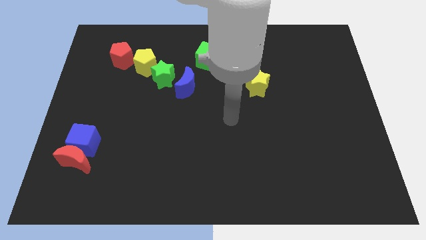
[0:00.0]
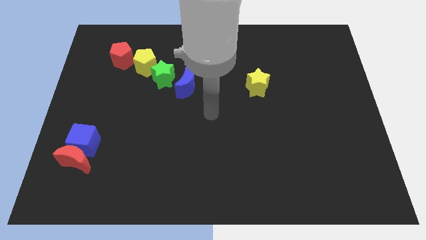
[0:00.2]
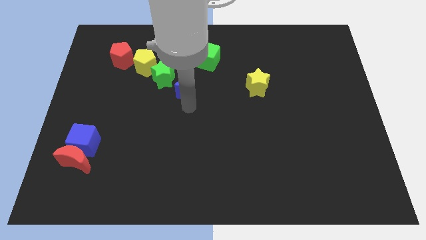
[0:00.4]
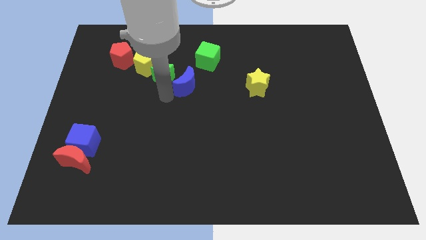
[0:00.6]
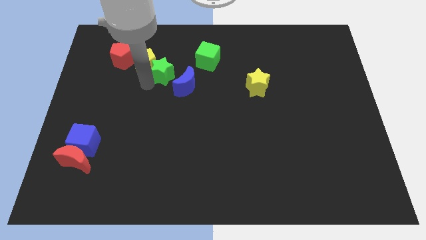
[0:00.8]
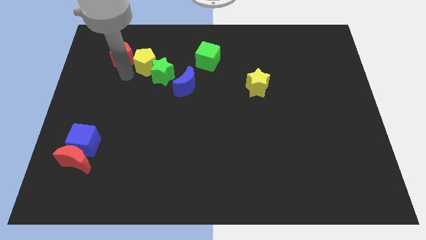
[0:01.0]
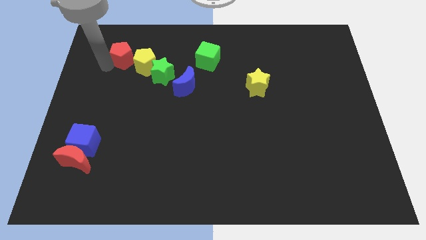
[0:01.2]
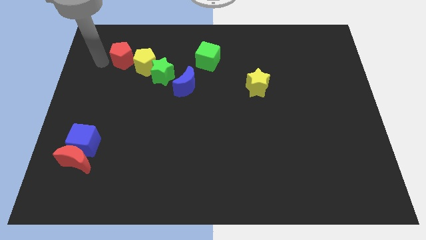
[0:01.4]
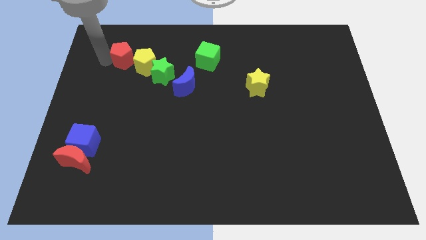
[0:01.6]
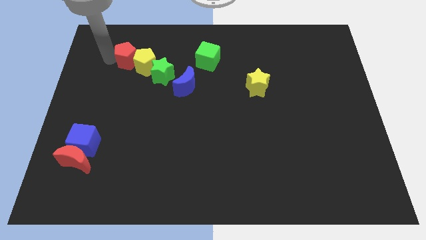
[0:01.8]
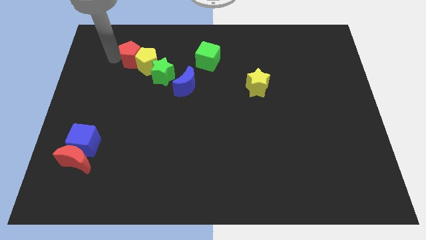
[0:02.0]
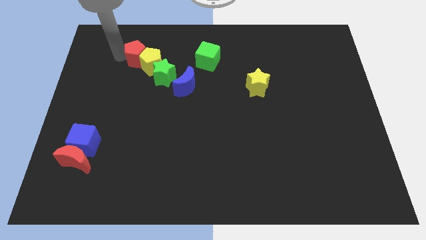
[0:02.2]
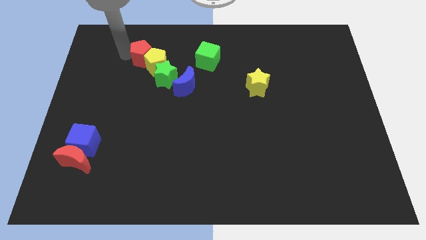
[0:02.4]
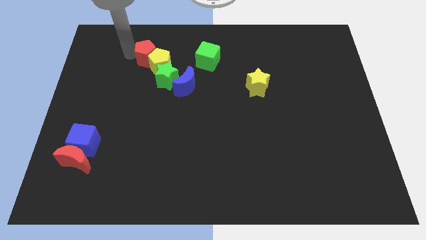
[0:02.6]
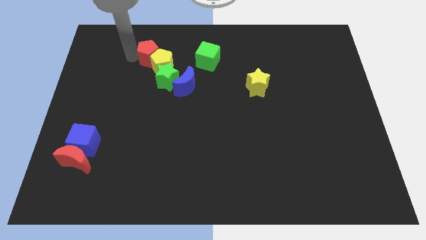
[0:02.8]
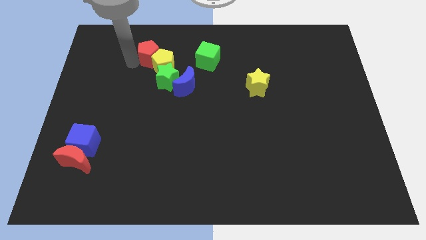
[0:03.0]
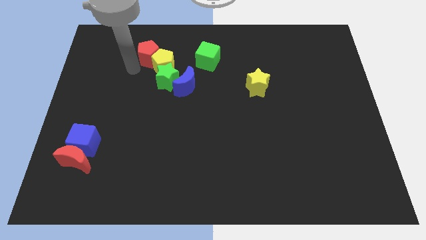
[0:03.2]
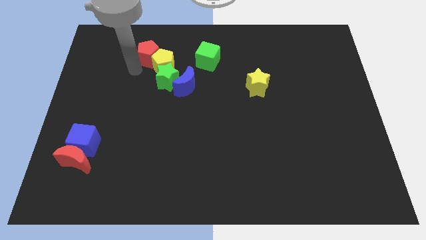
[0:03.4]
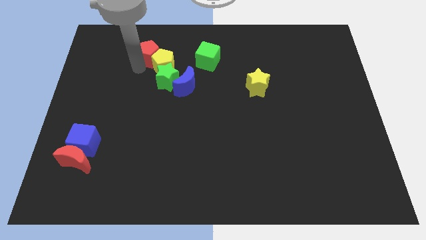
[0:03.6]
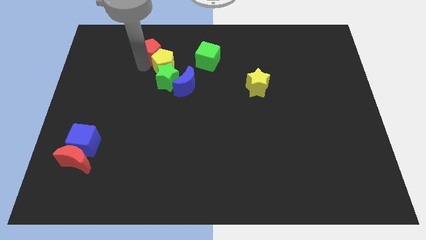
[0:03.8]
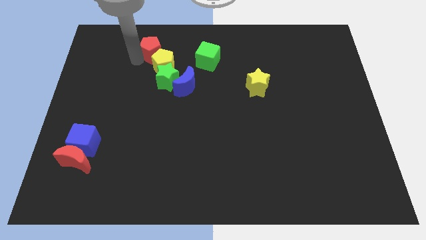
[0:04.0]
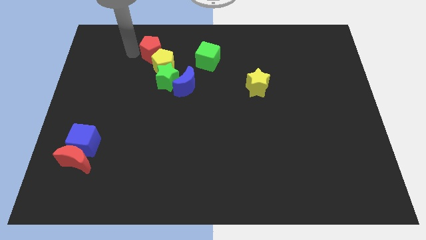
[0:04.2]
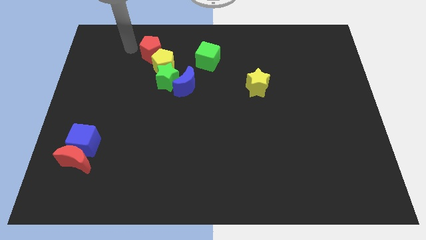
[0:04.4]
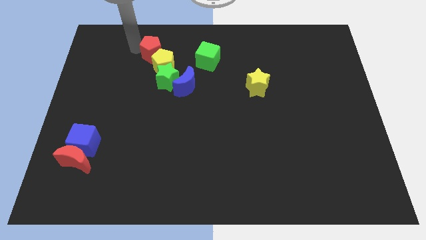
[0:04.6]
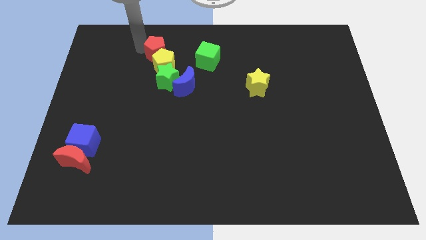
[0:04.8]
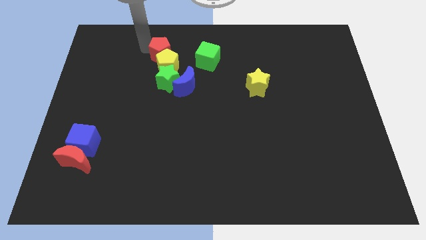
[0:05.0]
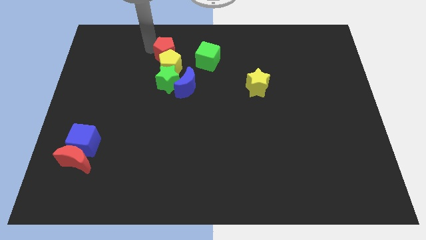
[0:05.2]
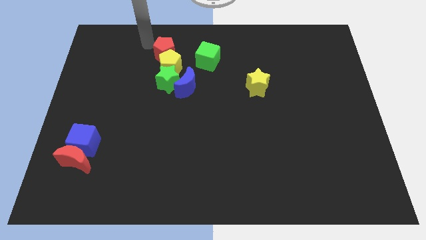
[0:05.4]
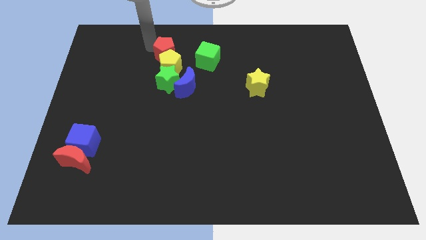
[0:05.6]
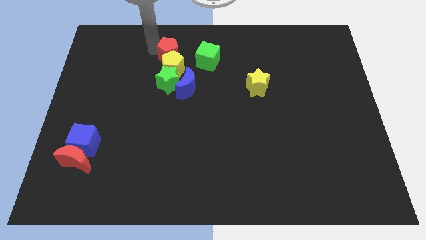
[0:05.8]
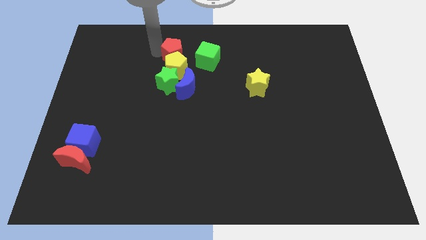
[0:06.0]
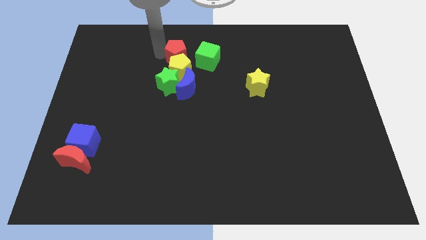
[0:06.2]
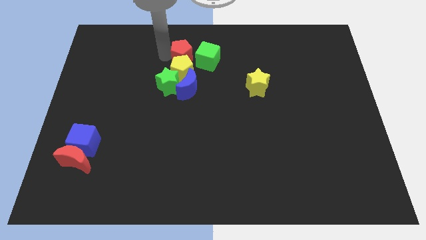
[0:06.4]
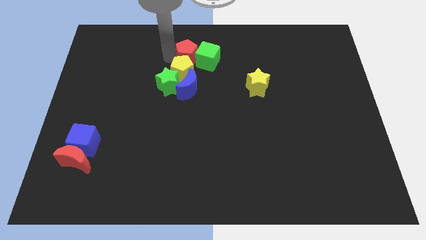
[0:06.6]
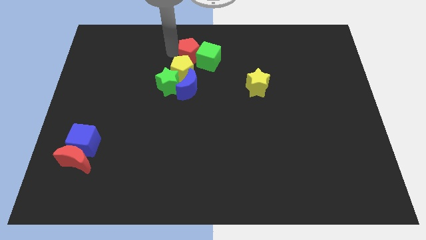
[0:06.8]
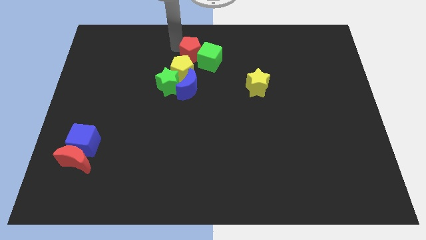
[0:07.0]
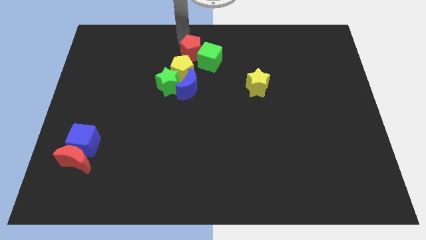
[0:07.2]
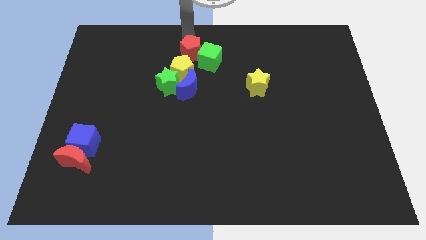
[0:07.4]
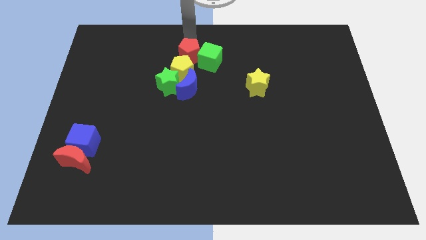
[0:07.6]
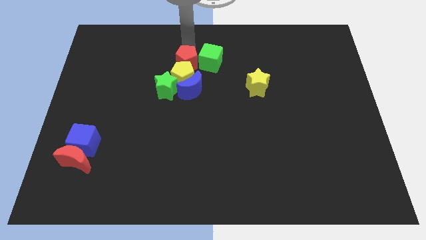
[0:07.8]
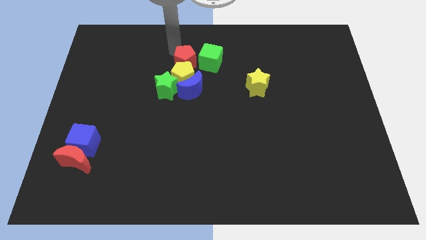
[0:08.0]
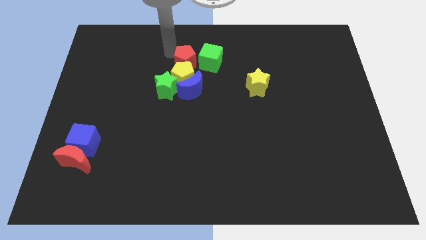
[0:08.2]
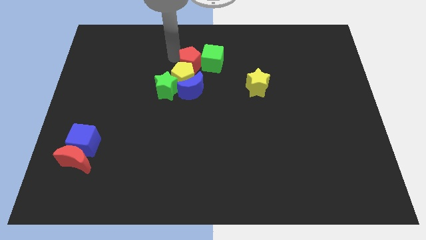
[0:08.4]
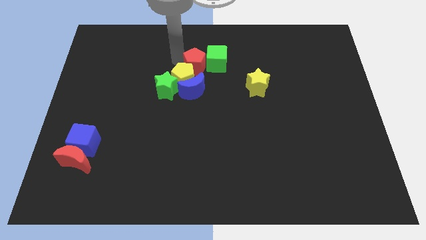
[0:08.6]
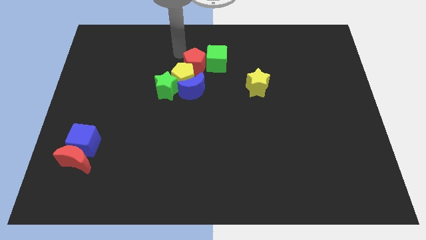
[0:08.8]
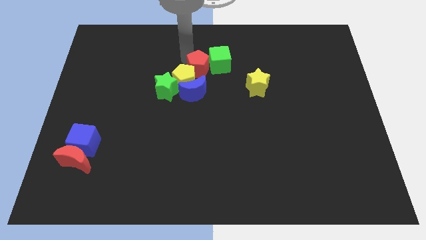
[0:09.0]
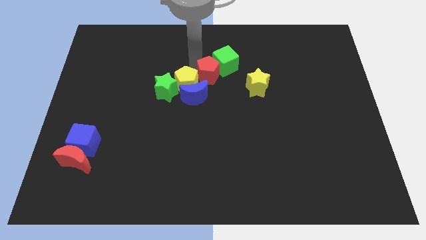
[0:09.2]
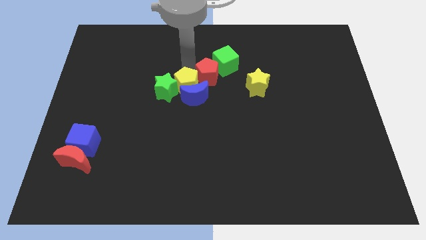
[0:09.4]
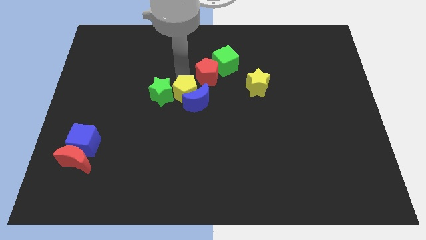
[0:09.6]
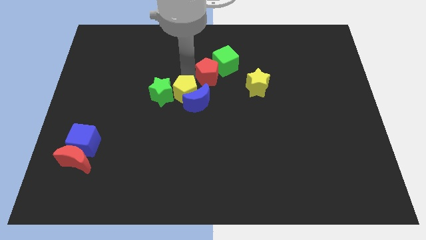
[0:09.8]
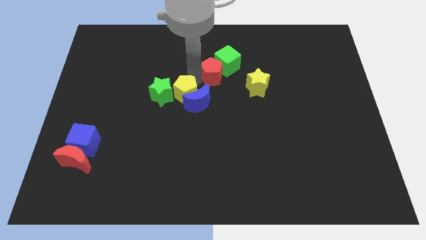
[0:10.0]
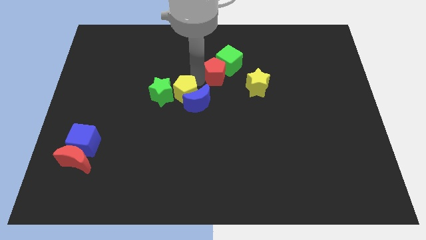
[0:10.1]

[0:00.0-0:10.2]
move the red pentagon to the top left of the yellow star

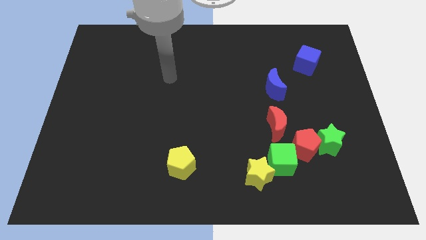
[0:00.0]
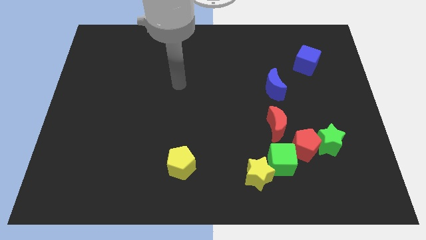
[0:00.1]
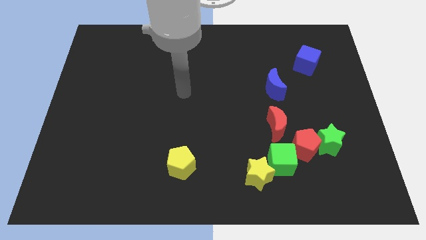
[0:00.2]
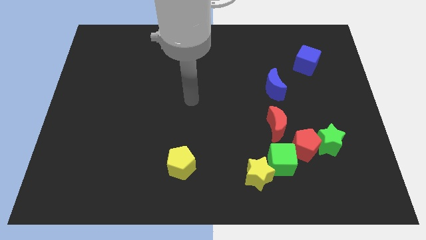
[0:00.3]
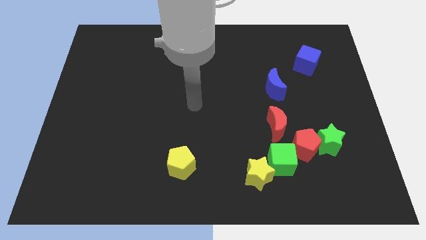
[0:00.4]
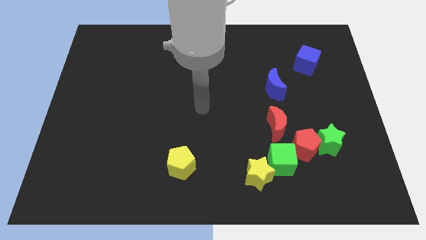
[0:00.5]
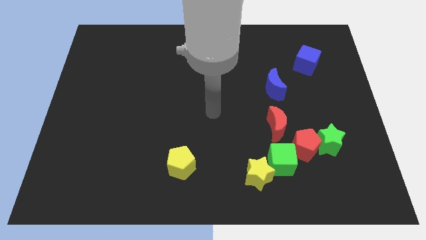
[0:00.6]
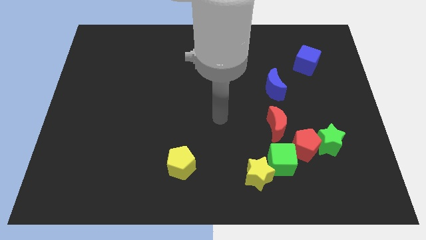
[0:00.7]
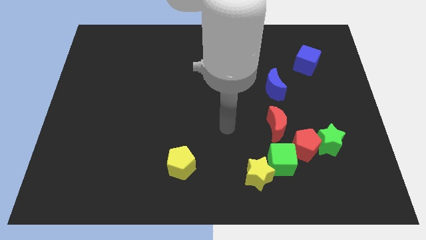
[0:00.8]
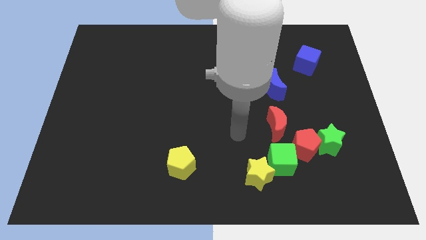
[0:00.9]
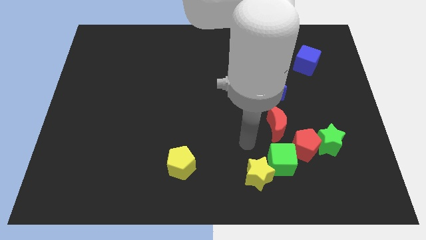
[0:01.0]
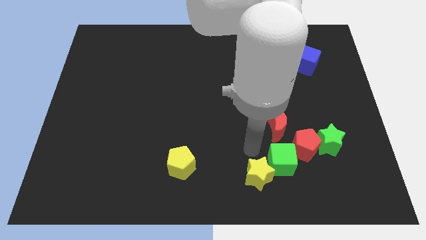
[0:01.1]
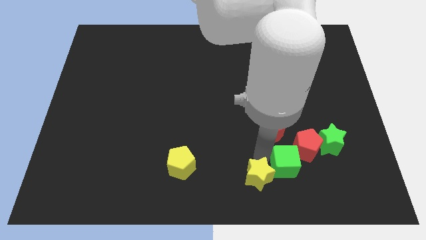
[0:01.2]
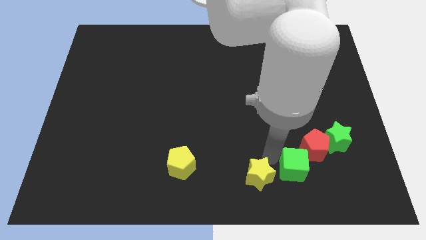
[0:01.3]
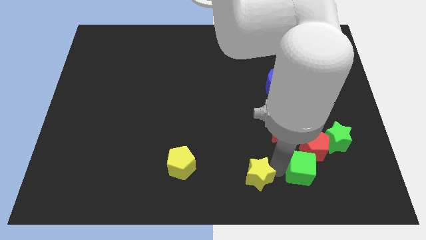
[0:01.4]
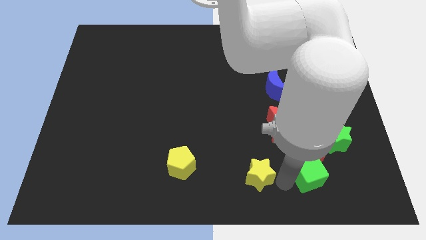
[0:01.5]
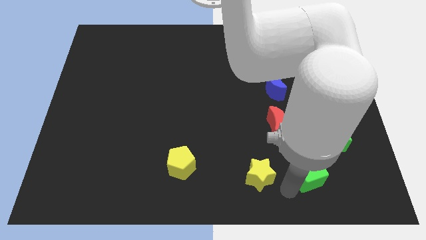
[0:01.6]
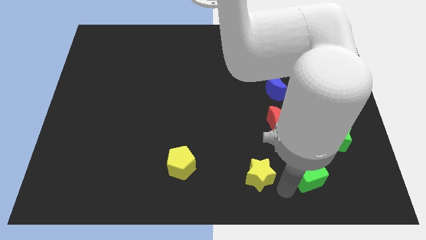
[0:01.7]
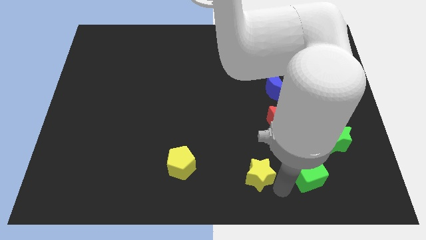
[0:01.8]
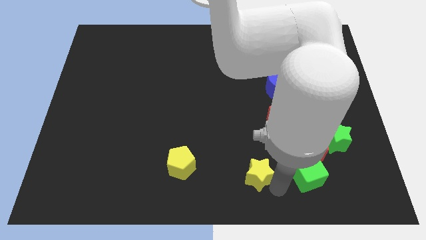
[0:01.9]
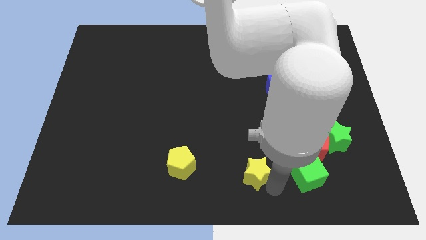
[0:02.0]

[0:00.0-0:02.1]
move the yellow star to the right side of the yellow pentagon
